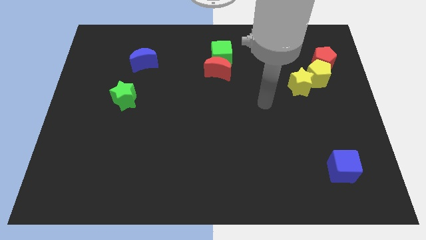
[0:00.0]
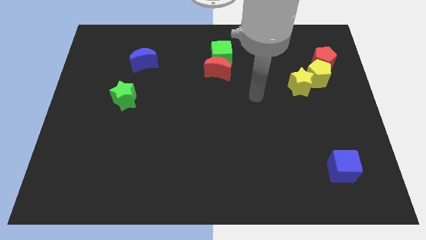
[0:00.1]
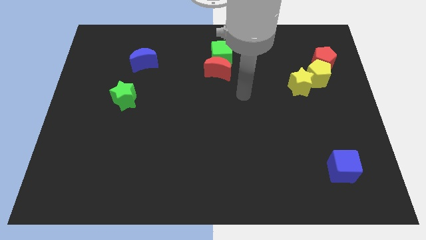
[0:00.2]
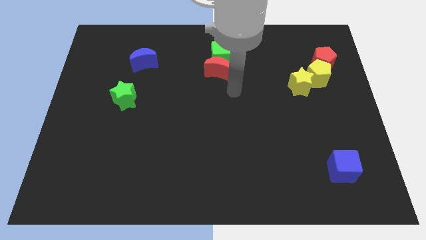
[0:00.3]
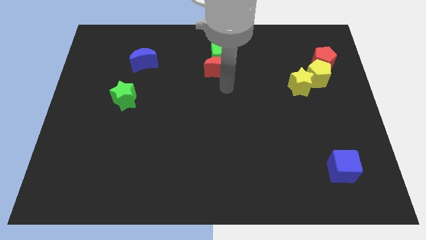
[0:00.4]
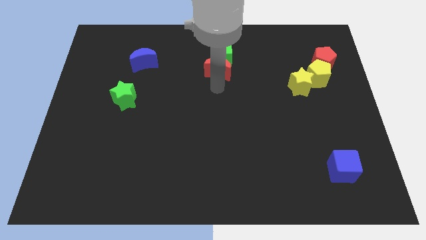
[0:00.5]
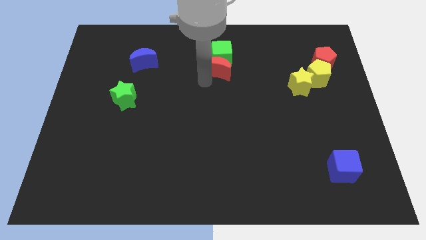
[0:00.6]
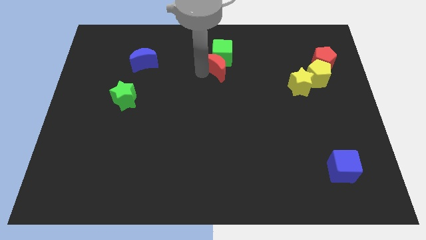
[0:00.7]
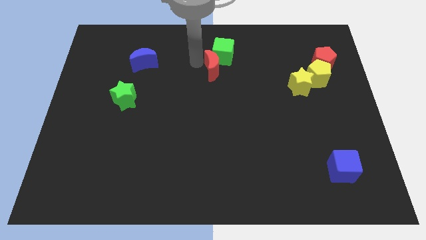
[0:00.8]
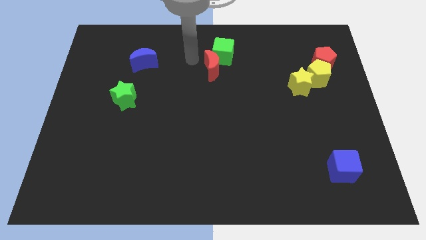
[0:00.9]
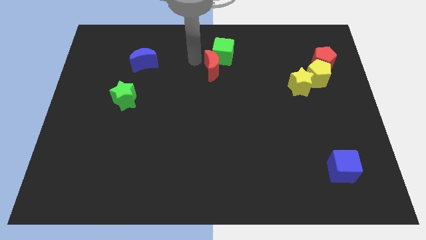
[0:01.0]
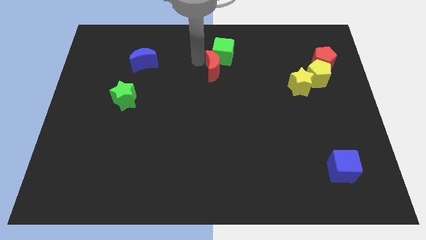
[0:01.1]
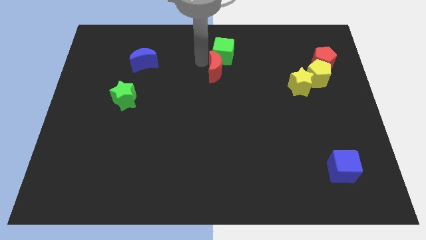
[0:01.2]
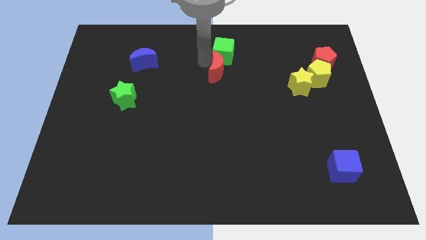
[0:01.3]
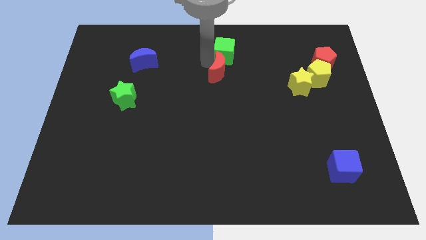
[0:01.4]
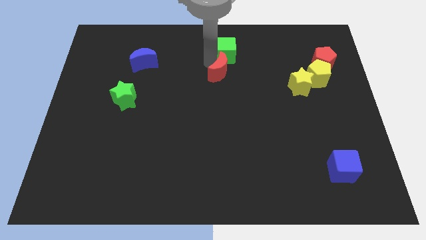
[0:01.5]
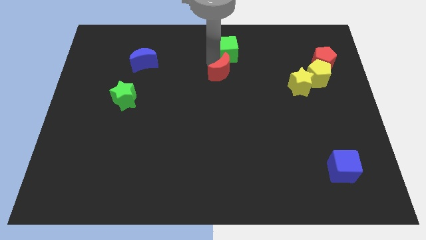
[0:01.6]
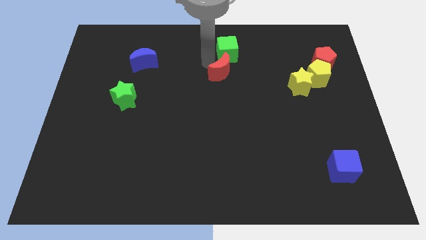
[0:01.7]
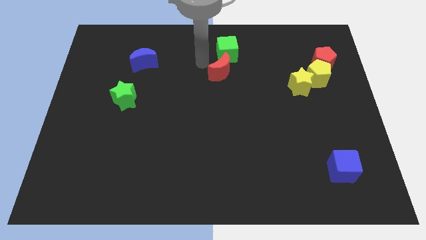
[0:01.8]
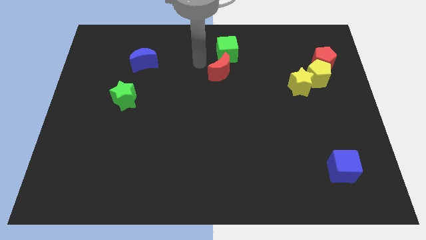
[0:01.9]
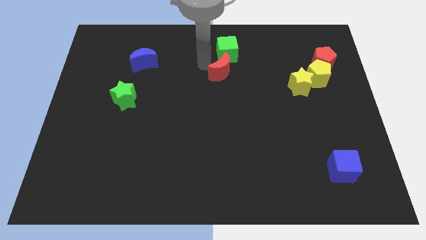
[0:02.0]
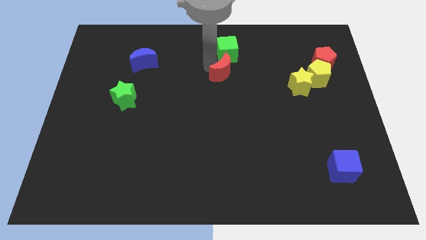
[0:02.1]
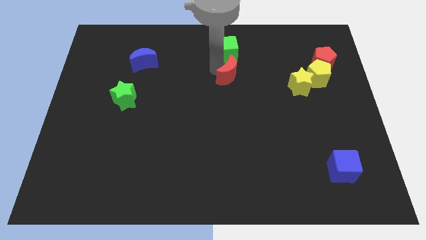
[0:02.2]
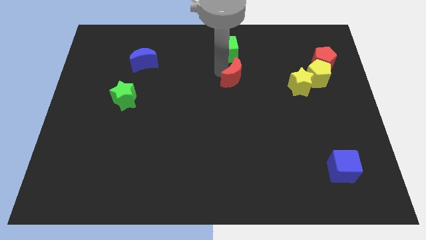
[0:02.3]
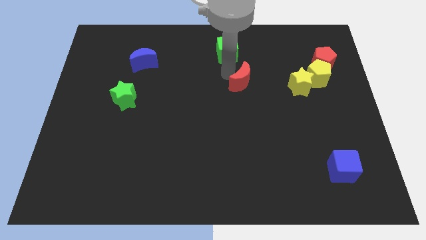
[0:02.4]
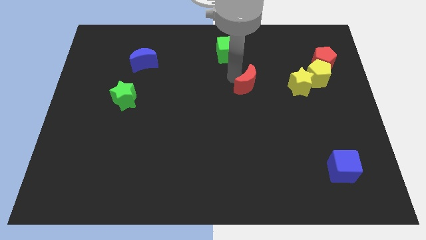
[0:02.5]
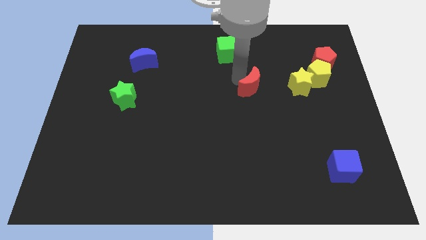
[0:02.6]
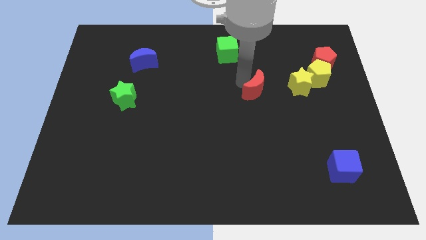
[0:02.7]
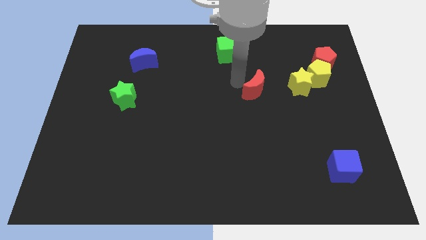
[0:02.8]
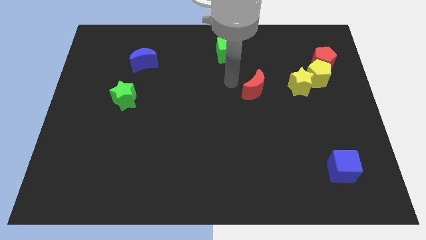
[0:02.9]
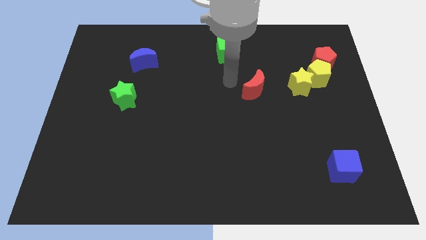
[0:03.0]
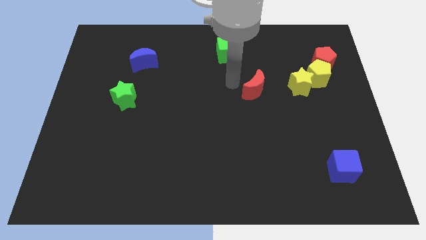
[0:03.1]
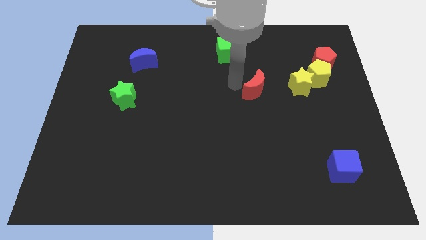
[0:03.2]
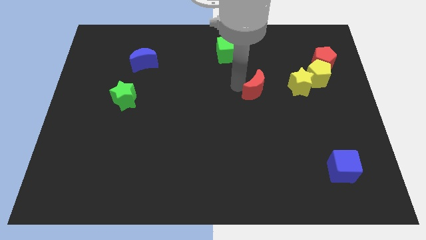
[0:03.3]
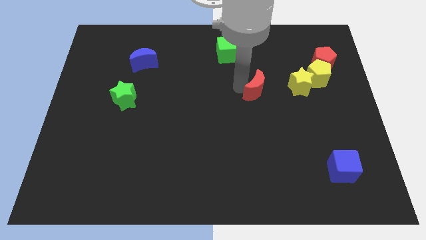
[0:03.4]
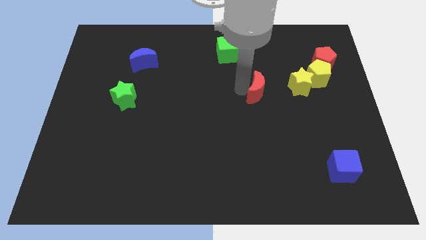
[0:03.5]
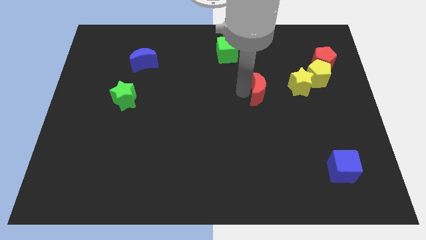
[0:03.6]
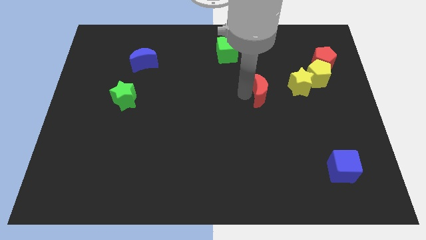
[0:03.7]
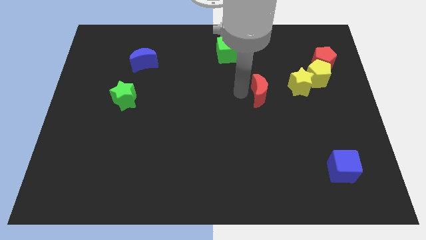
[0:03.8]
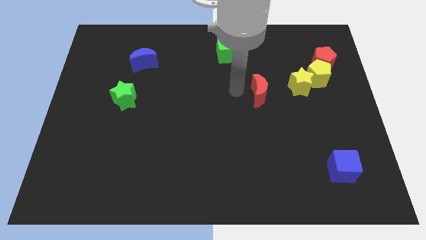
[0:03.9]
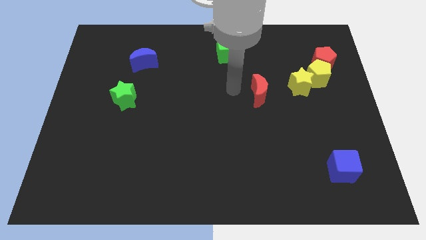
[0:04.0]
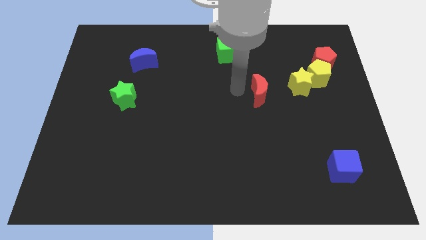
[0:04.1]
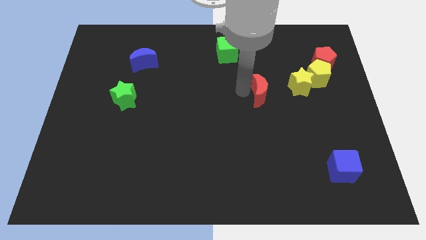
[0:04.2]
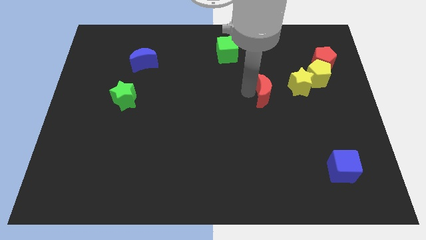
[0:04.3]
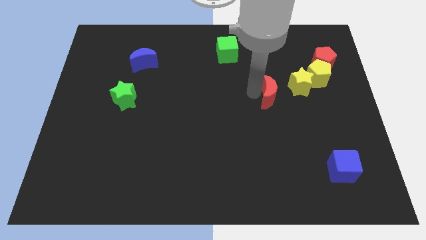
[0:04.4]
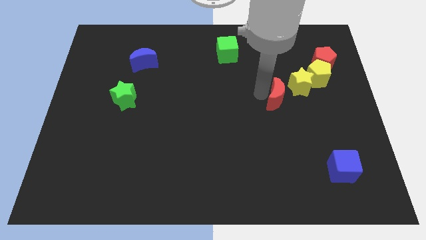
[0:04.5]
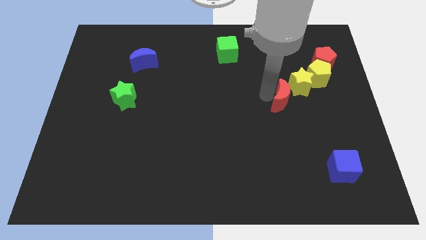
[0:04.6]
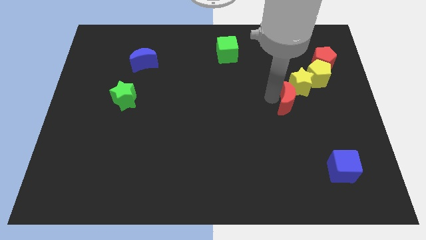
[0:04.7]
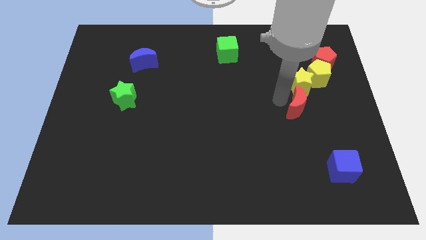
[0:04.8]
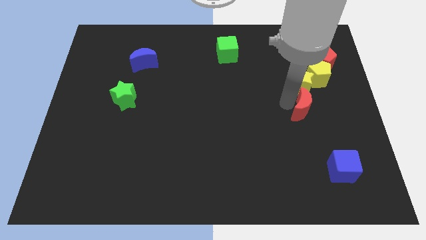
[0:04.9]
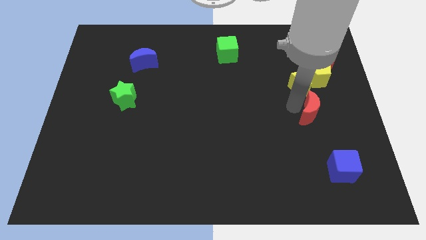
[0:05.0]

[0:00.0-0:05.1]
push the red moon to the bottom side of the yellow pentagon

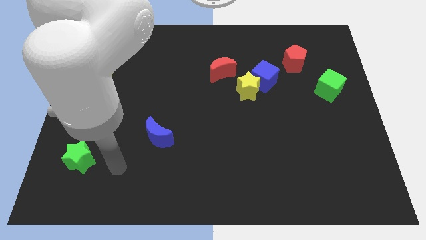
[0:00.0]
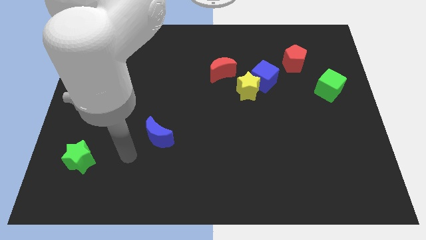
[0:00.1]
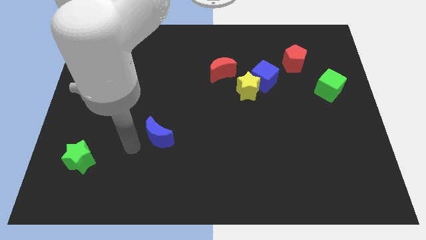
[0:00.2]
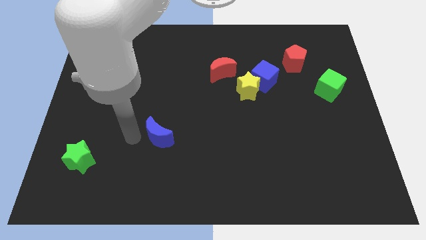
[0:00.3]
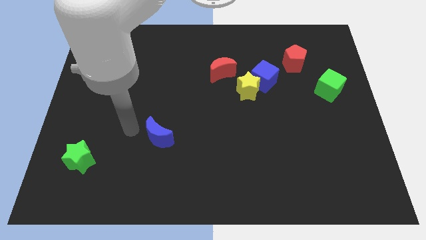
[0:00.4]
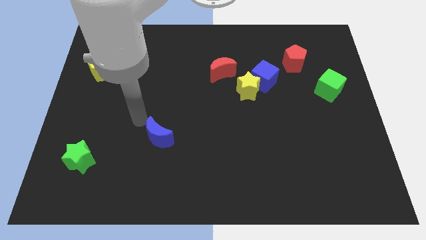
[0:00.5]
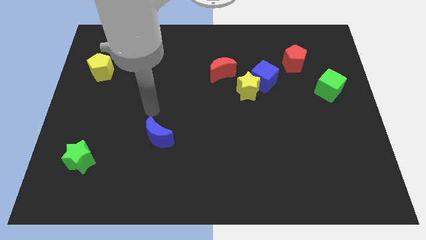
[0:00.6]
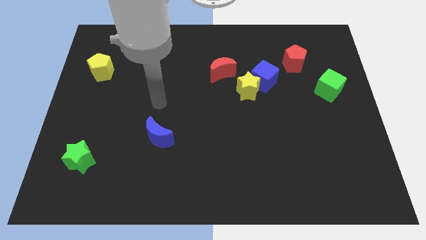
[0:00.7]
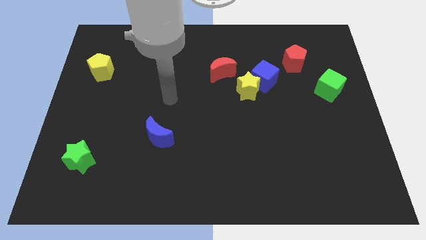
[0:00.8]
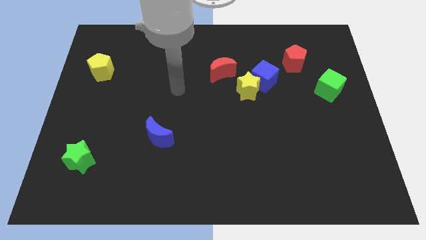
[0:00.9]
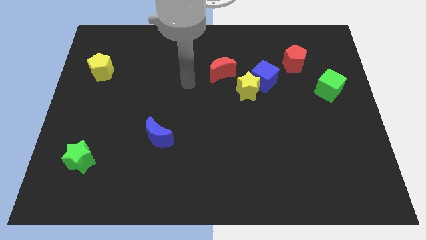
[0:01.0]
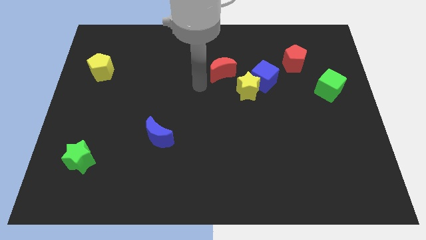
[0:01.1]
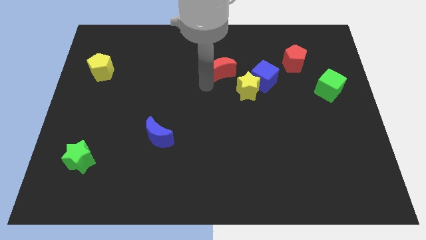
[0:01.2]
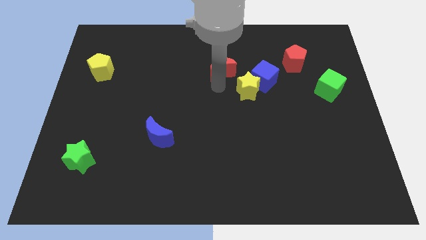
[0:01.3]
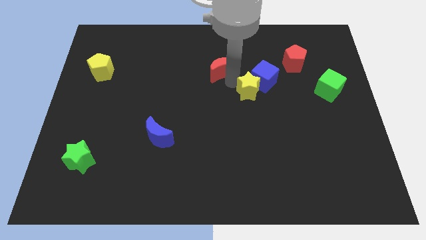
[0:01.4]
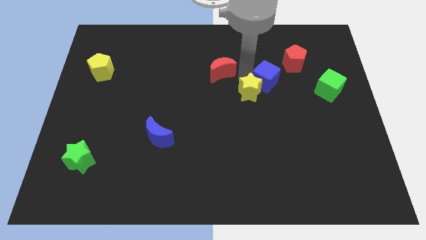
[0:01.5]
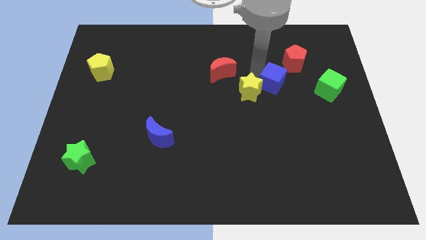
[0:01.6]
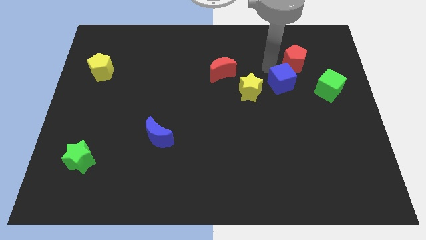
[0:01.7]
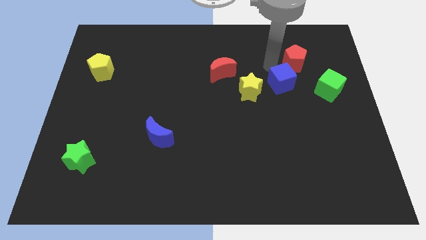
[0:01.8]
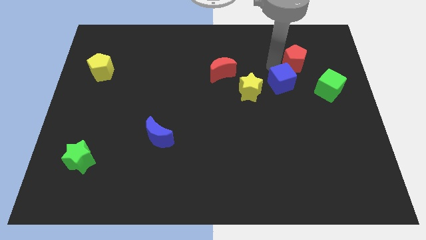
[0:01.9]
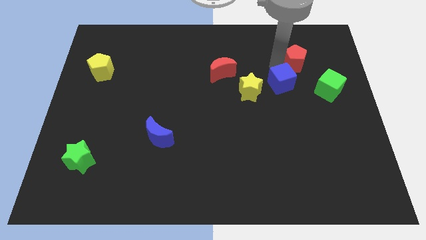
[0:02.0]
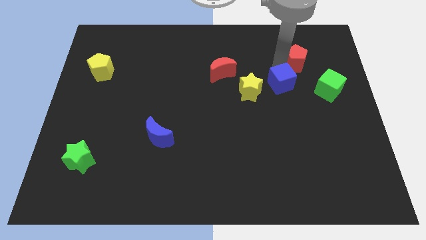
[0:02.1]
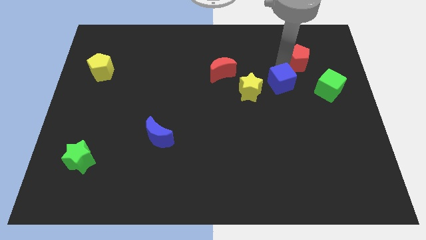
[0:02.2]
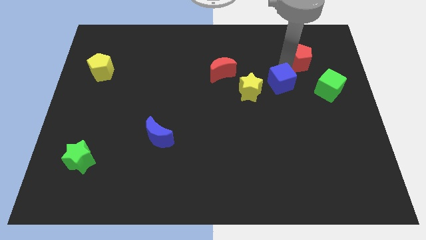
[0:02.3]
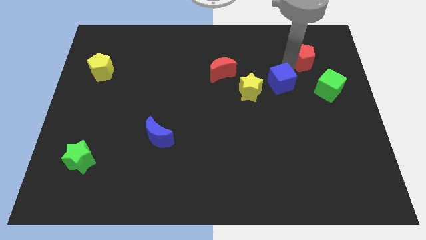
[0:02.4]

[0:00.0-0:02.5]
slide the red pentagon above the green cube

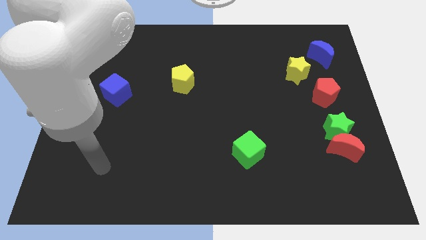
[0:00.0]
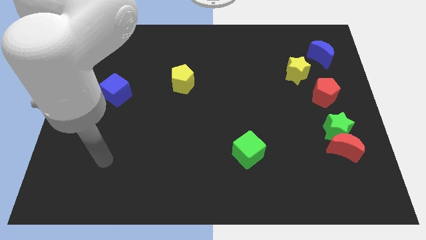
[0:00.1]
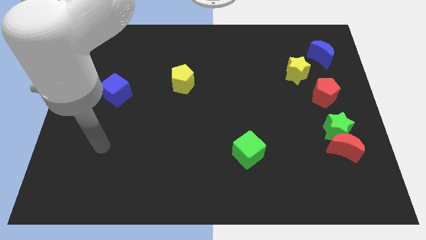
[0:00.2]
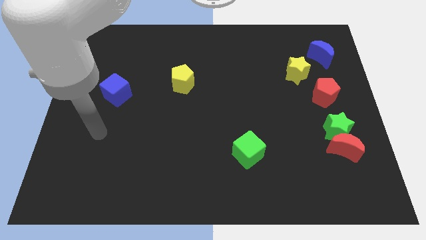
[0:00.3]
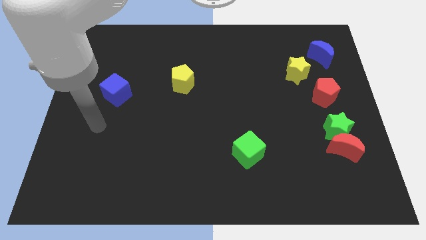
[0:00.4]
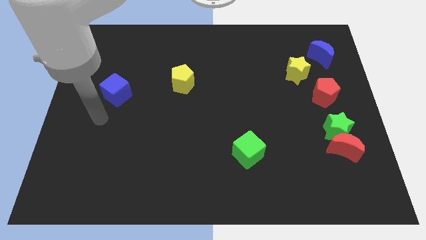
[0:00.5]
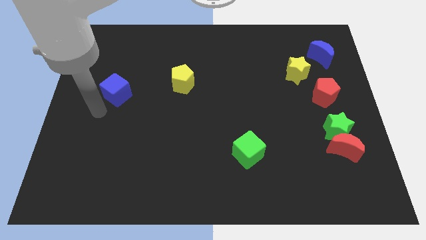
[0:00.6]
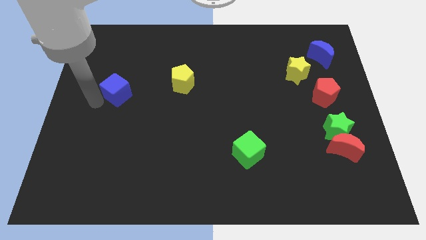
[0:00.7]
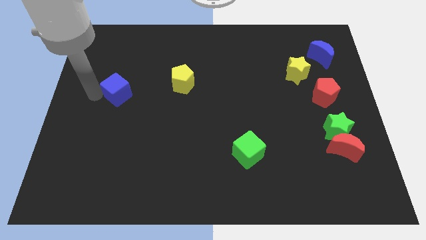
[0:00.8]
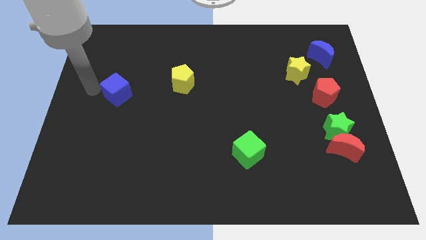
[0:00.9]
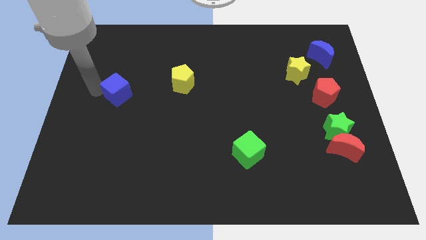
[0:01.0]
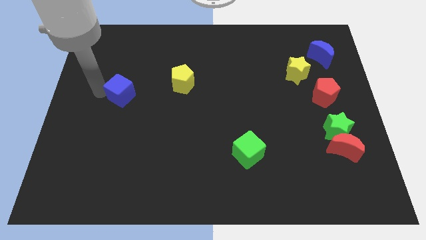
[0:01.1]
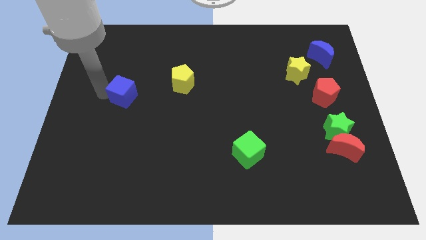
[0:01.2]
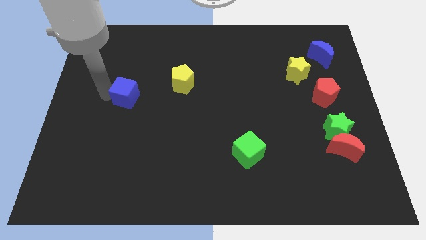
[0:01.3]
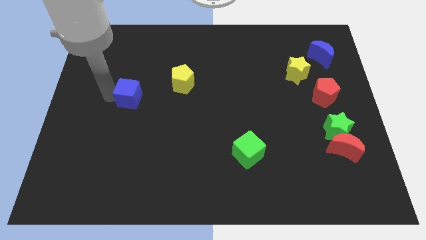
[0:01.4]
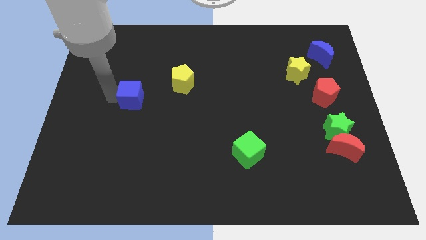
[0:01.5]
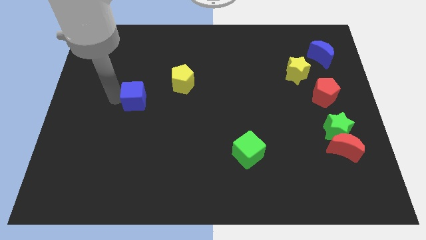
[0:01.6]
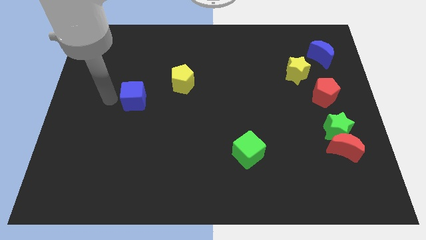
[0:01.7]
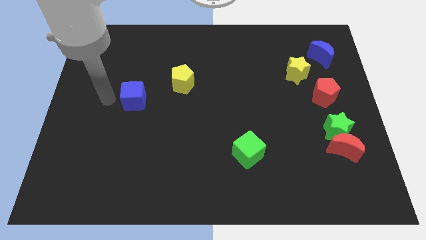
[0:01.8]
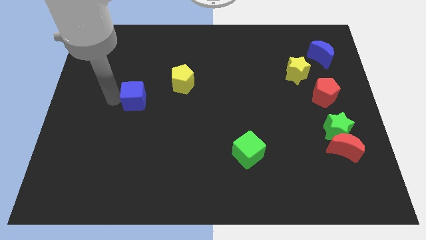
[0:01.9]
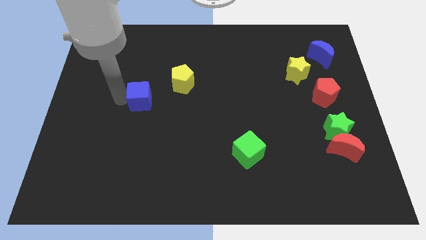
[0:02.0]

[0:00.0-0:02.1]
slide the blue cube to the bottom left of the yellow pentagon
